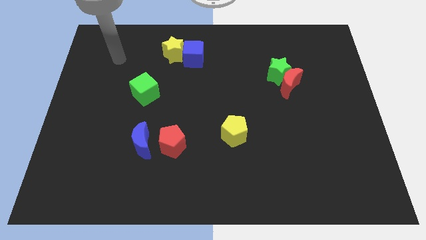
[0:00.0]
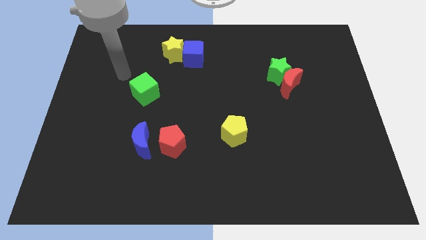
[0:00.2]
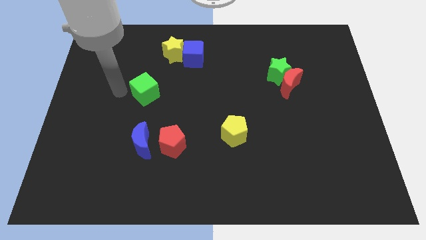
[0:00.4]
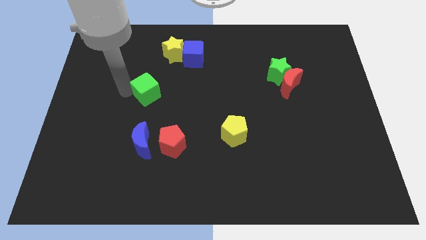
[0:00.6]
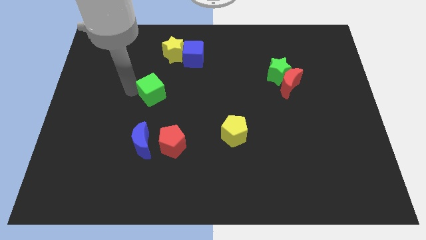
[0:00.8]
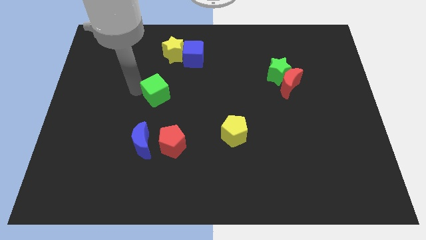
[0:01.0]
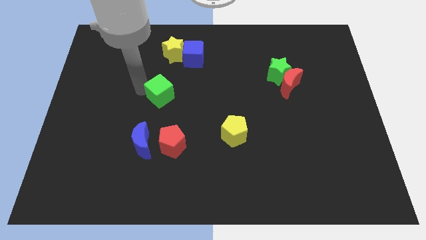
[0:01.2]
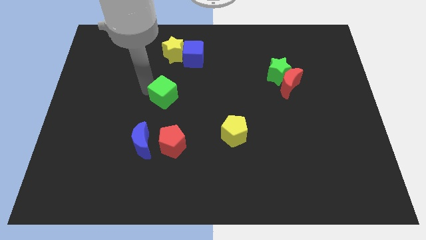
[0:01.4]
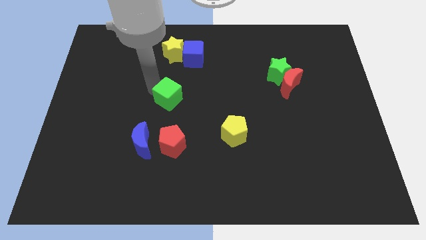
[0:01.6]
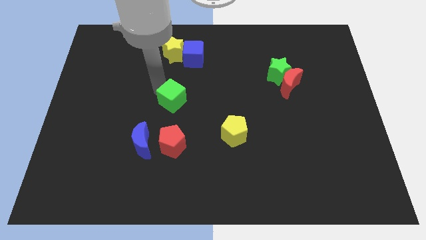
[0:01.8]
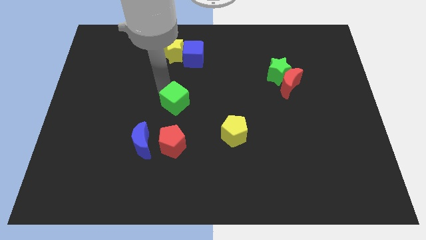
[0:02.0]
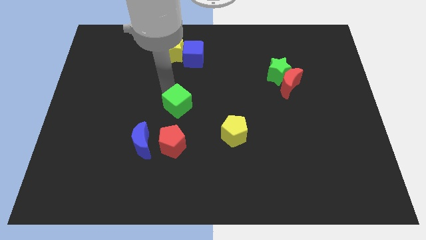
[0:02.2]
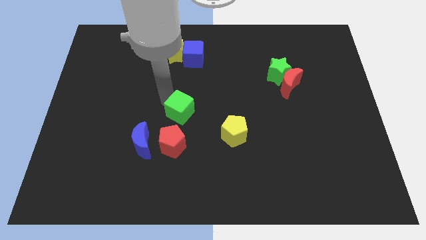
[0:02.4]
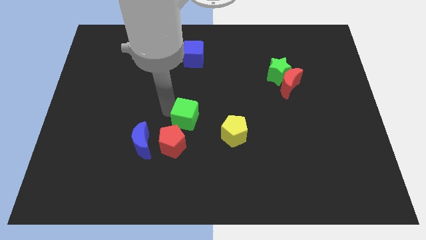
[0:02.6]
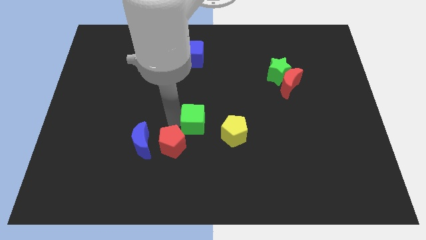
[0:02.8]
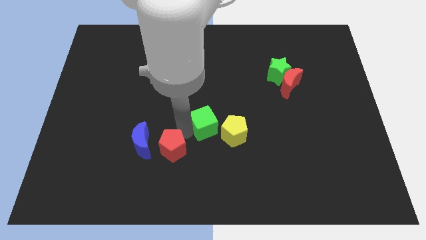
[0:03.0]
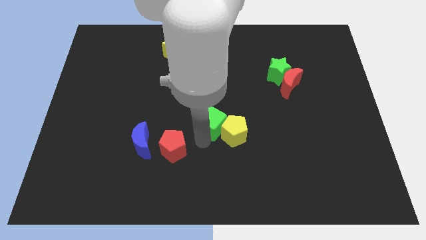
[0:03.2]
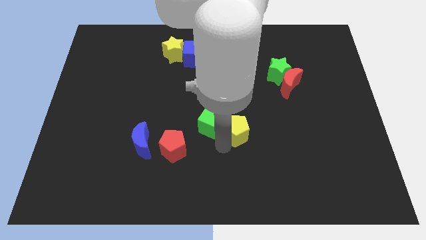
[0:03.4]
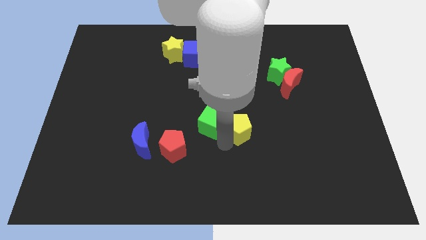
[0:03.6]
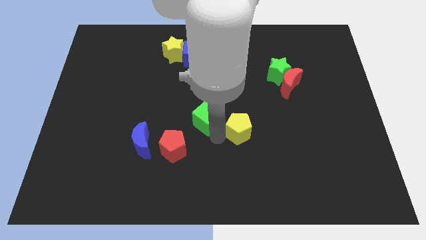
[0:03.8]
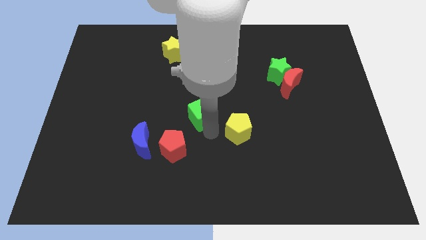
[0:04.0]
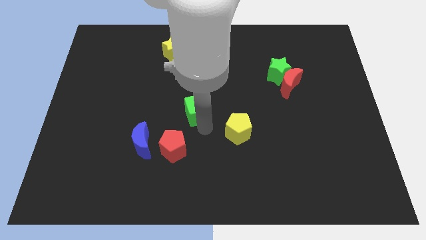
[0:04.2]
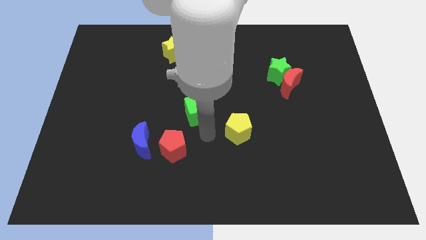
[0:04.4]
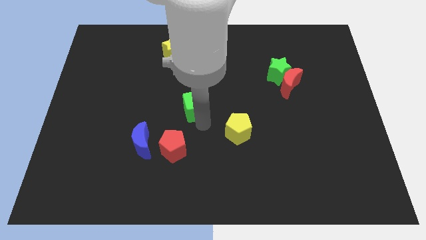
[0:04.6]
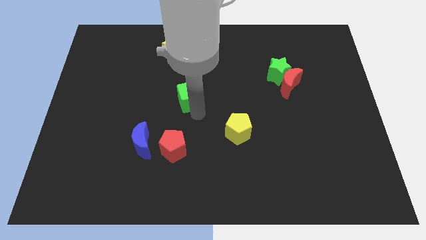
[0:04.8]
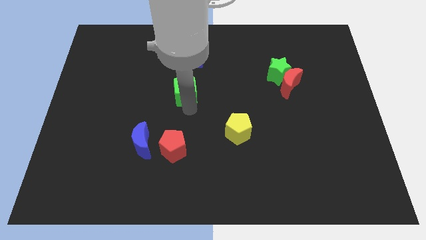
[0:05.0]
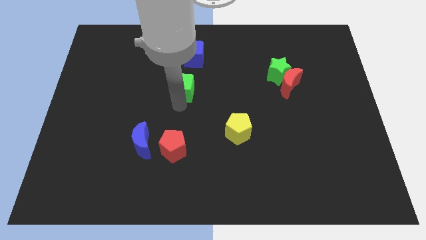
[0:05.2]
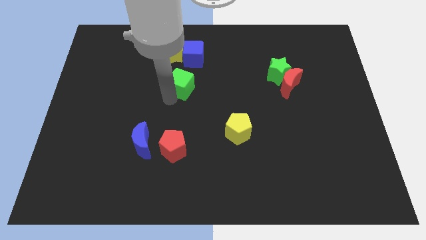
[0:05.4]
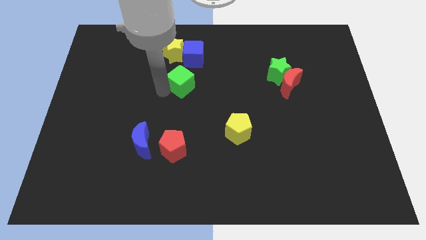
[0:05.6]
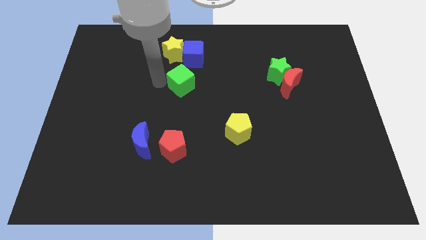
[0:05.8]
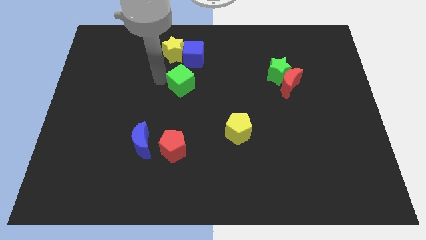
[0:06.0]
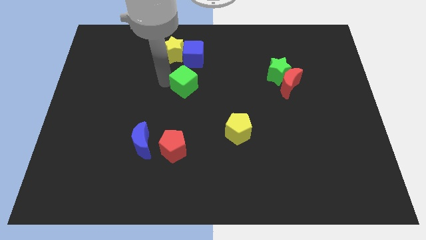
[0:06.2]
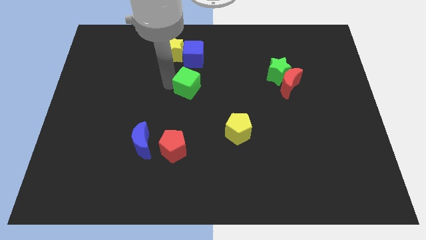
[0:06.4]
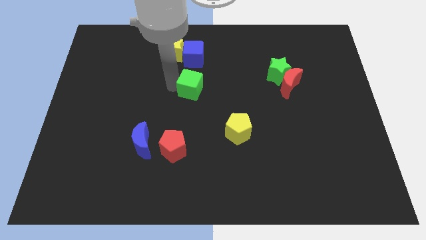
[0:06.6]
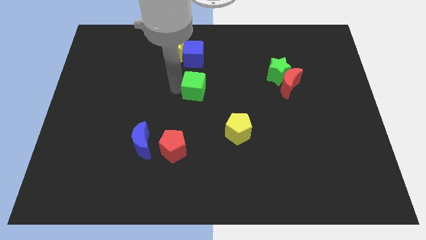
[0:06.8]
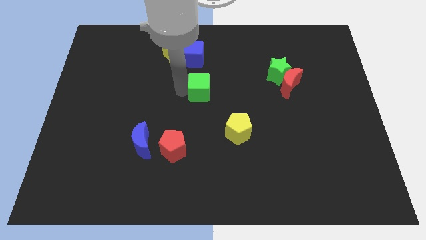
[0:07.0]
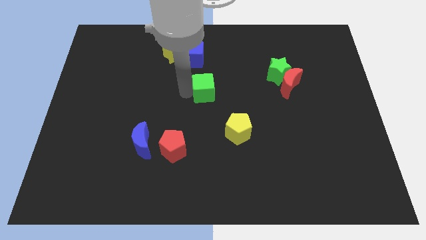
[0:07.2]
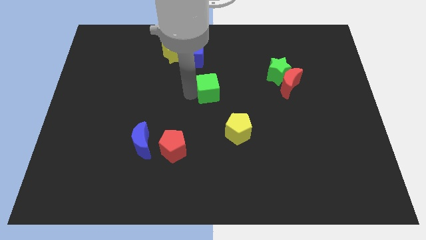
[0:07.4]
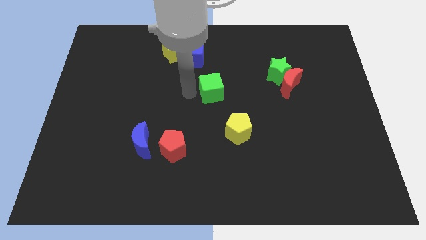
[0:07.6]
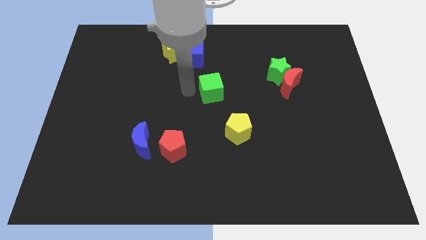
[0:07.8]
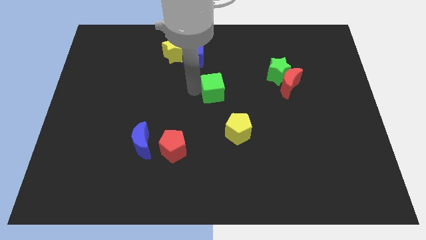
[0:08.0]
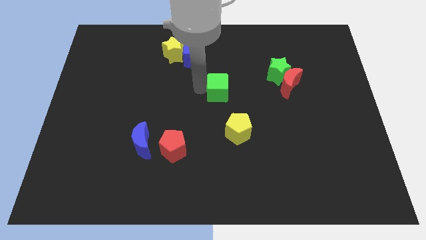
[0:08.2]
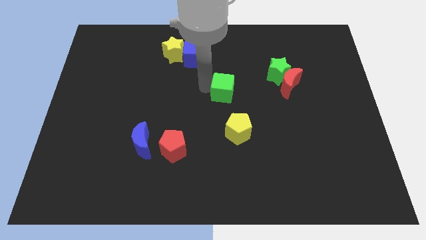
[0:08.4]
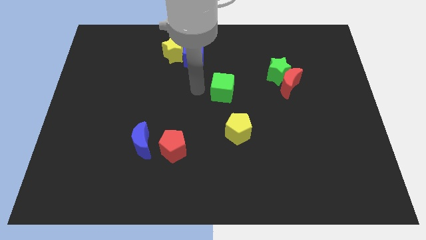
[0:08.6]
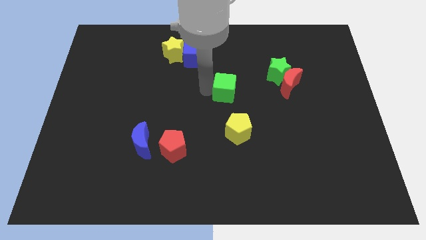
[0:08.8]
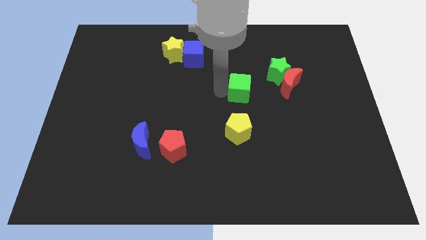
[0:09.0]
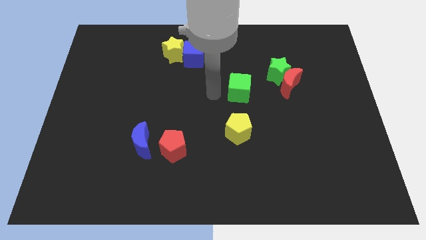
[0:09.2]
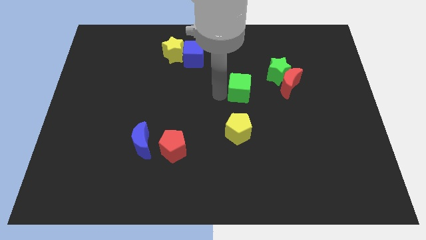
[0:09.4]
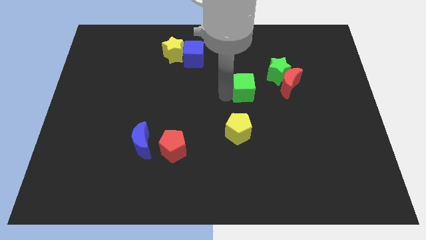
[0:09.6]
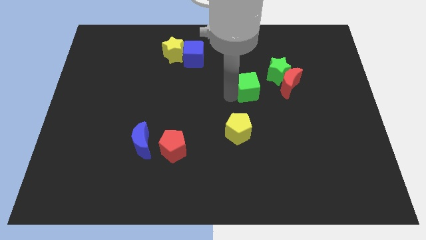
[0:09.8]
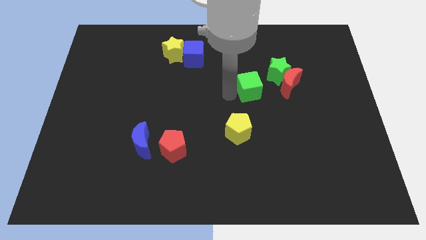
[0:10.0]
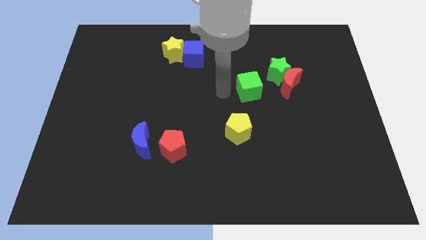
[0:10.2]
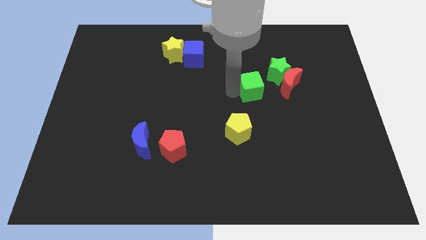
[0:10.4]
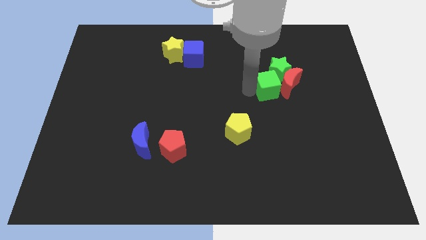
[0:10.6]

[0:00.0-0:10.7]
put the green cube towards the red moon

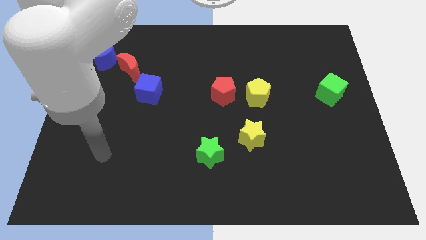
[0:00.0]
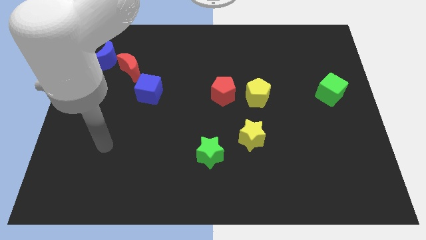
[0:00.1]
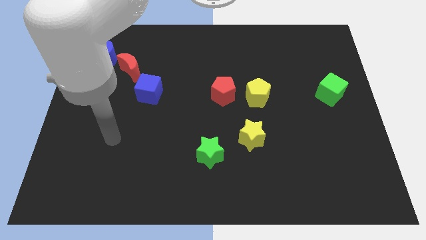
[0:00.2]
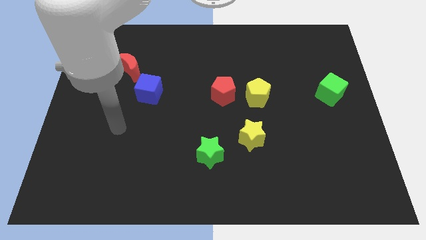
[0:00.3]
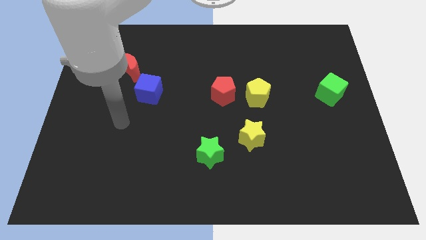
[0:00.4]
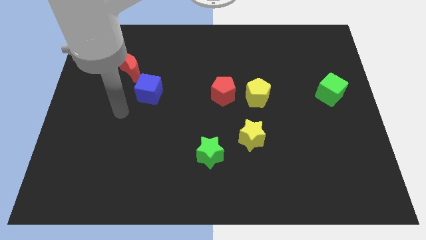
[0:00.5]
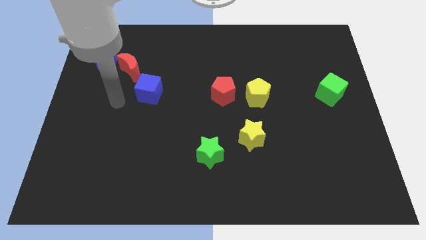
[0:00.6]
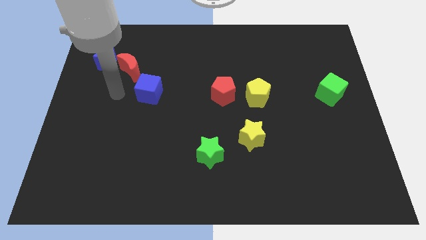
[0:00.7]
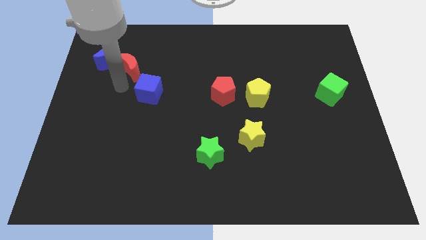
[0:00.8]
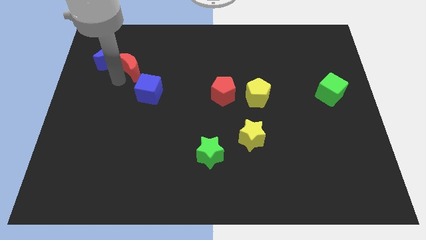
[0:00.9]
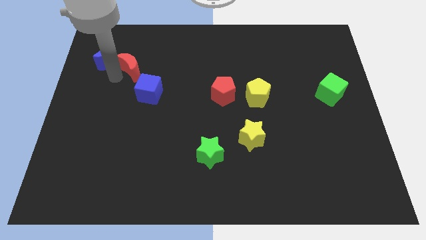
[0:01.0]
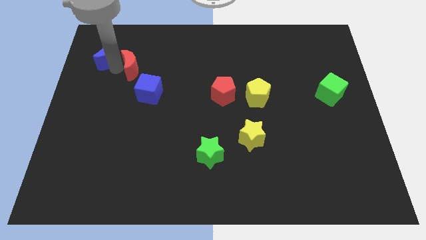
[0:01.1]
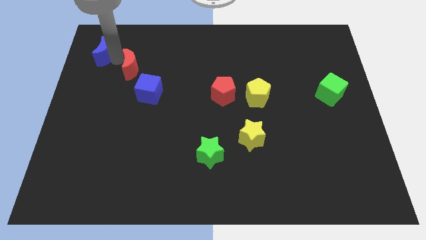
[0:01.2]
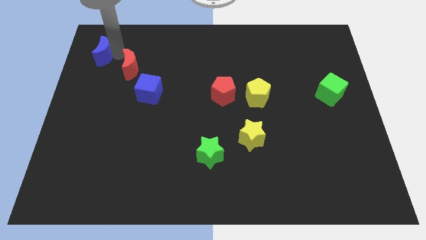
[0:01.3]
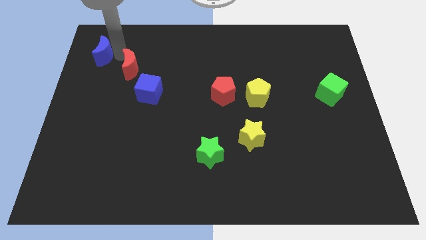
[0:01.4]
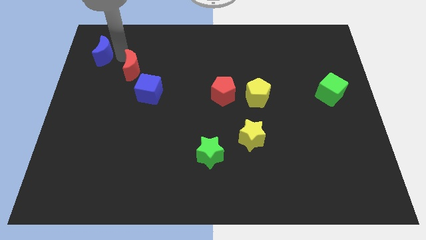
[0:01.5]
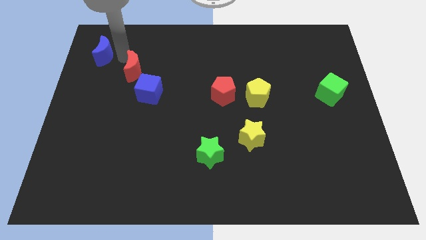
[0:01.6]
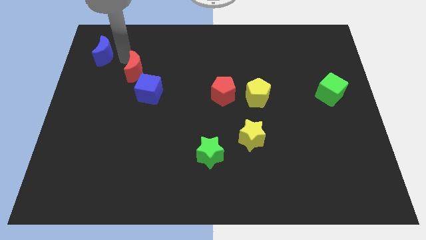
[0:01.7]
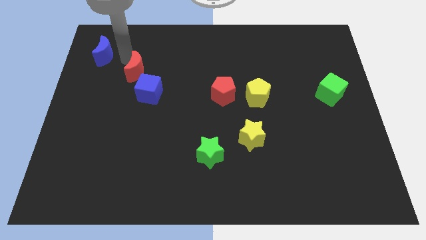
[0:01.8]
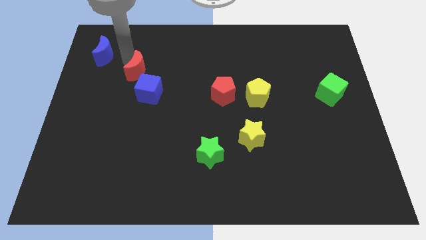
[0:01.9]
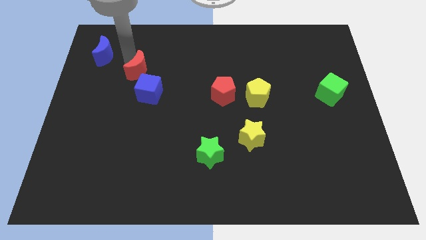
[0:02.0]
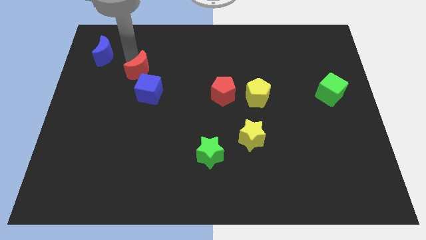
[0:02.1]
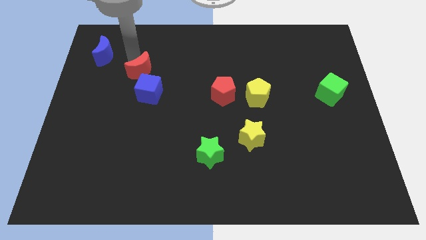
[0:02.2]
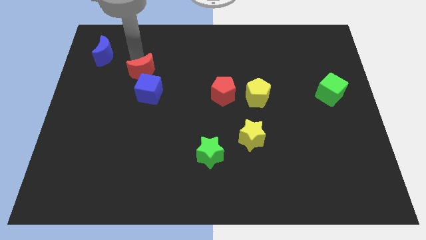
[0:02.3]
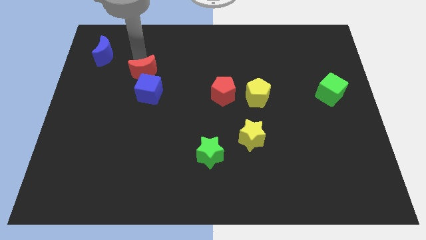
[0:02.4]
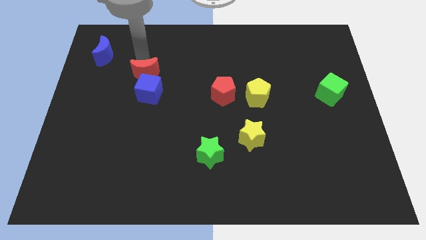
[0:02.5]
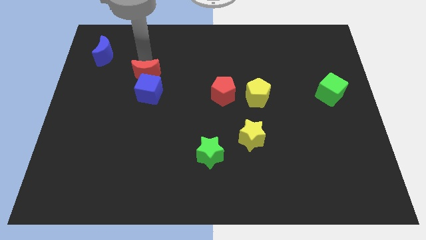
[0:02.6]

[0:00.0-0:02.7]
put the red moon to the blue cube
